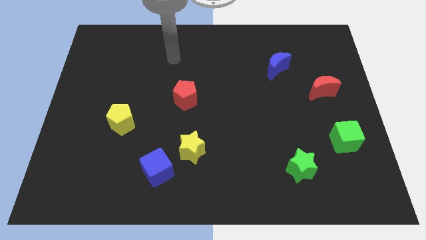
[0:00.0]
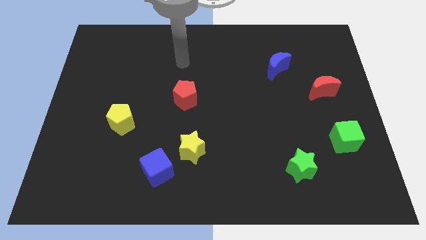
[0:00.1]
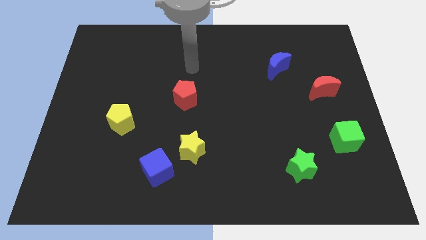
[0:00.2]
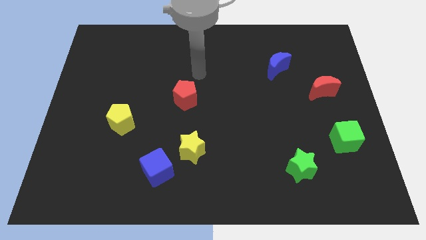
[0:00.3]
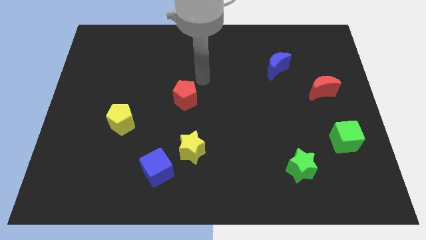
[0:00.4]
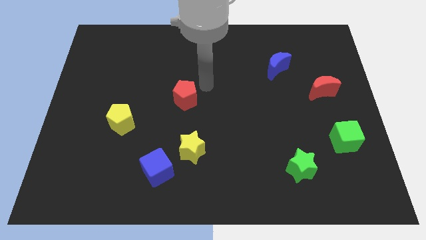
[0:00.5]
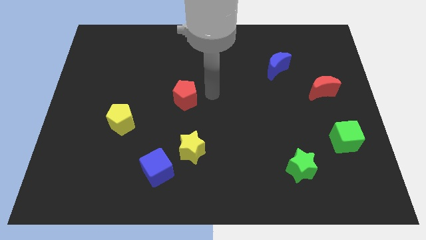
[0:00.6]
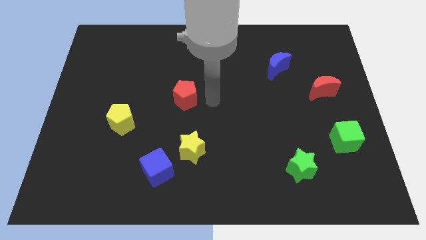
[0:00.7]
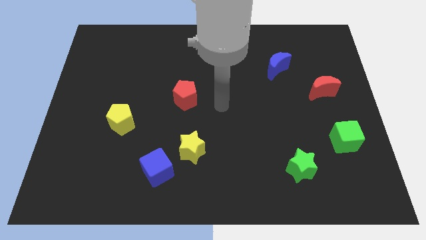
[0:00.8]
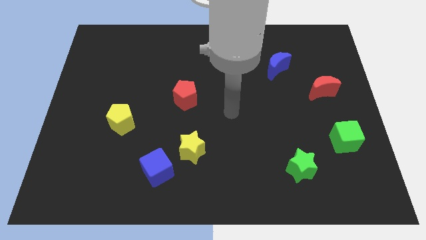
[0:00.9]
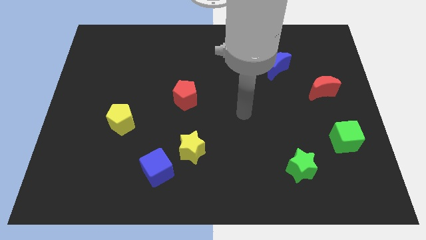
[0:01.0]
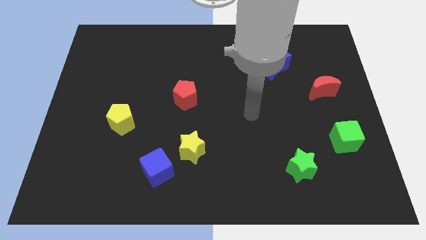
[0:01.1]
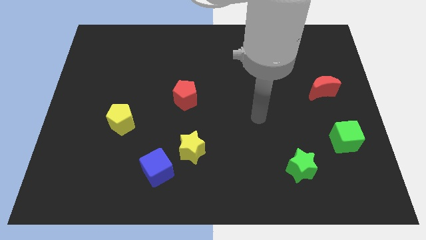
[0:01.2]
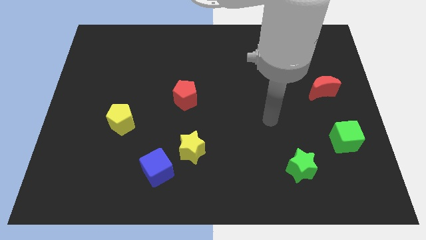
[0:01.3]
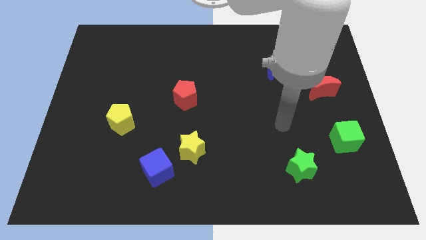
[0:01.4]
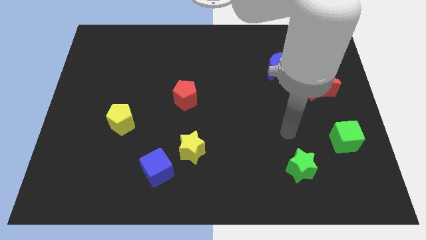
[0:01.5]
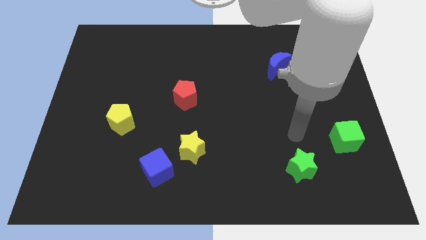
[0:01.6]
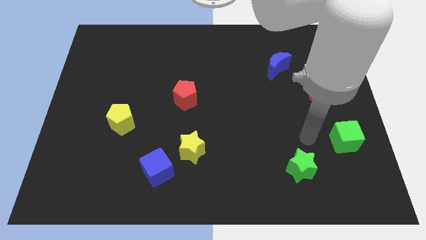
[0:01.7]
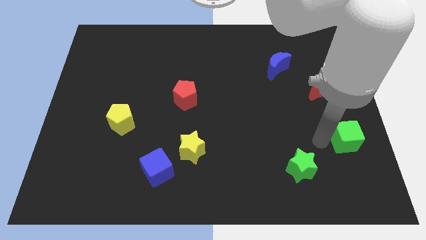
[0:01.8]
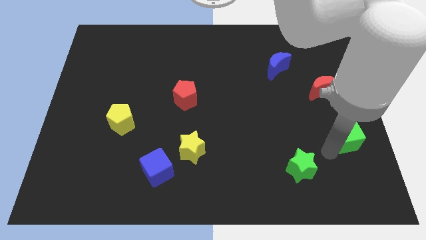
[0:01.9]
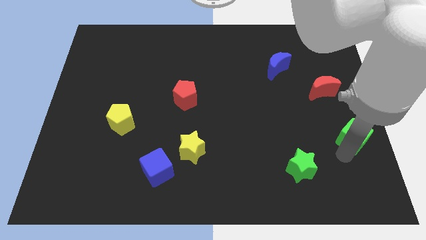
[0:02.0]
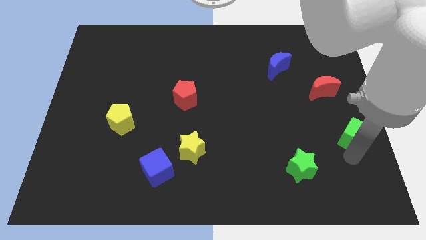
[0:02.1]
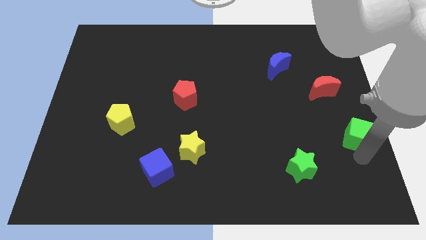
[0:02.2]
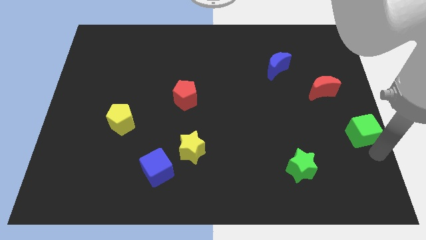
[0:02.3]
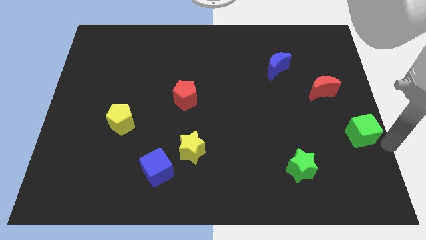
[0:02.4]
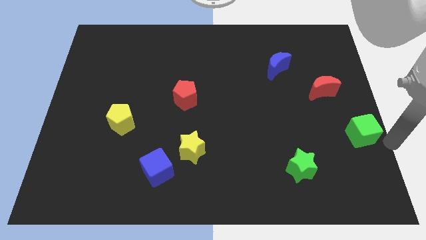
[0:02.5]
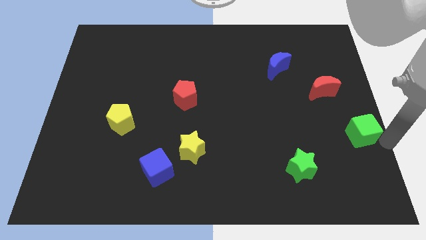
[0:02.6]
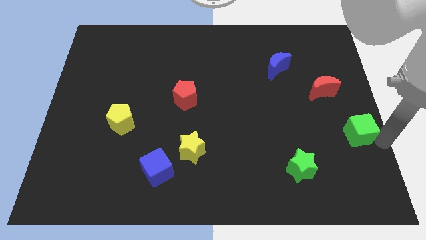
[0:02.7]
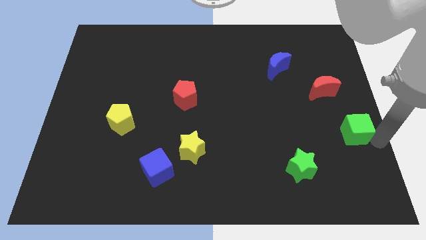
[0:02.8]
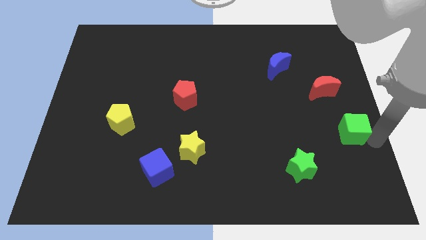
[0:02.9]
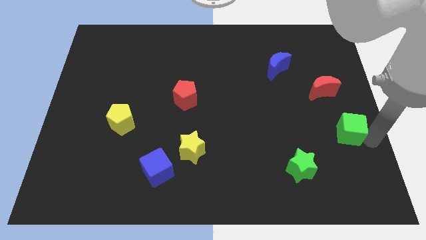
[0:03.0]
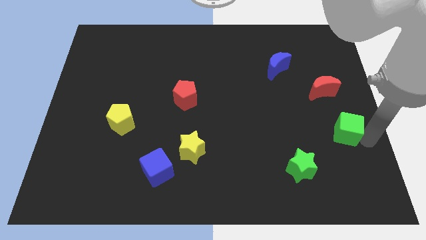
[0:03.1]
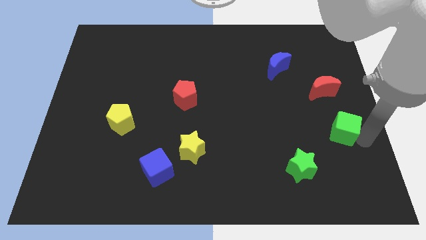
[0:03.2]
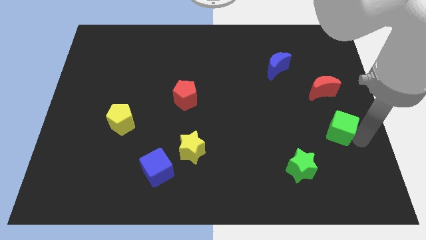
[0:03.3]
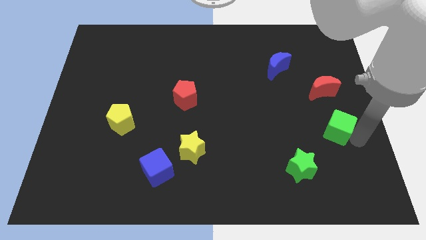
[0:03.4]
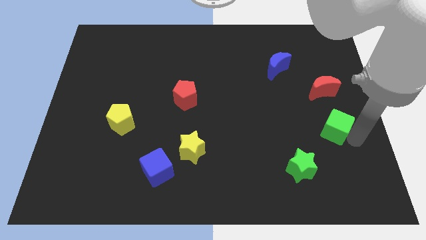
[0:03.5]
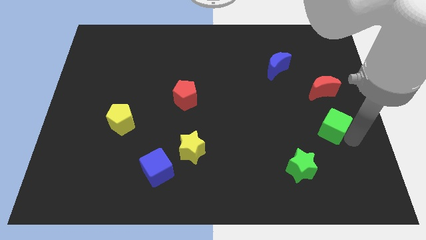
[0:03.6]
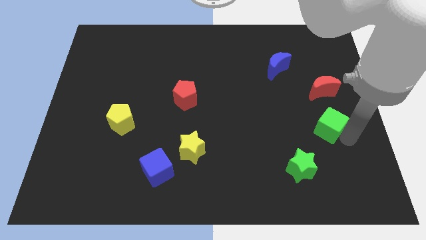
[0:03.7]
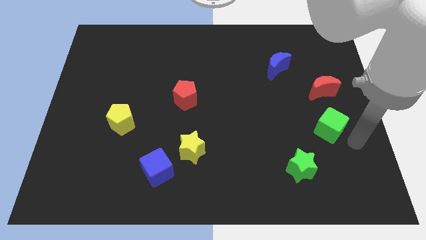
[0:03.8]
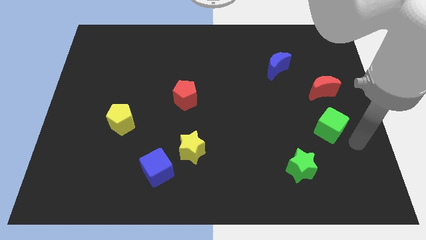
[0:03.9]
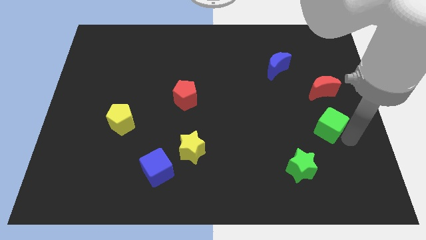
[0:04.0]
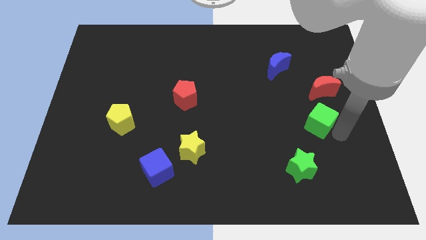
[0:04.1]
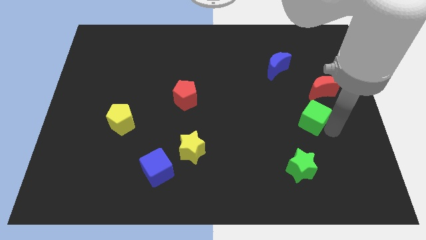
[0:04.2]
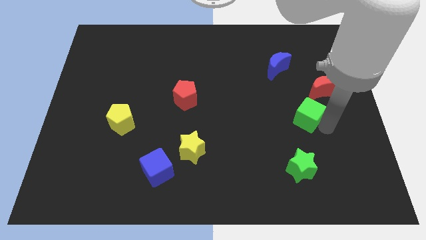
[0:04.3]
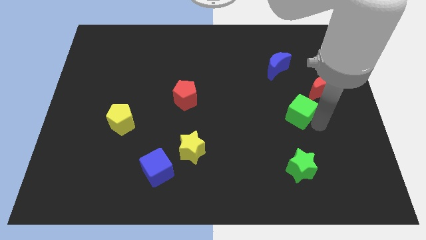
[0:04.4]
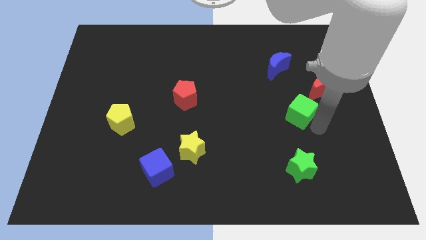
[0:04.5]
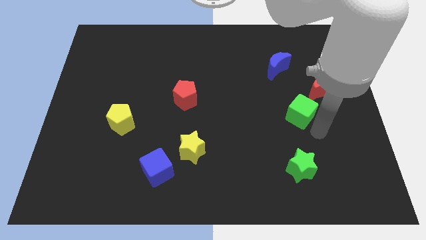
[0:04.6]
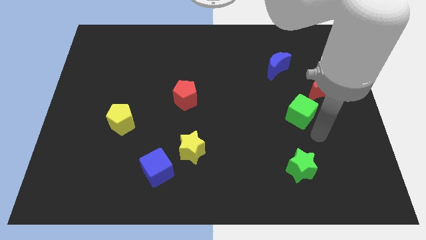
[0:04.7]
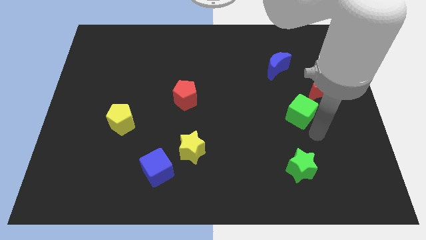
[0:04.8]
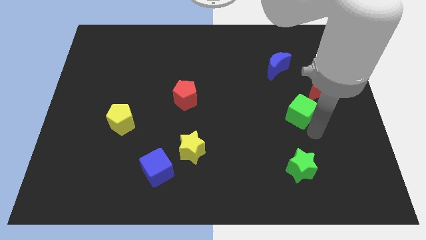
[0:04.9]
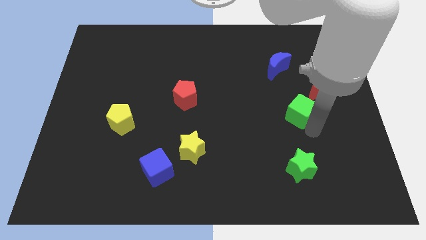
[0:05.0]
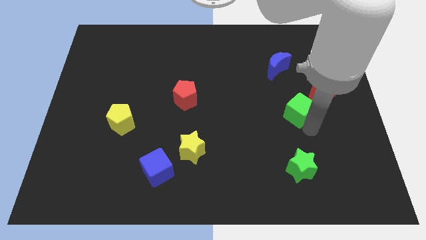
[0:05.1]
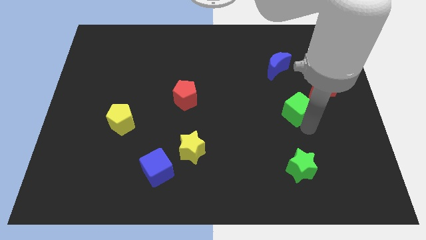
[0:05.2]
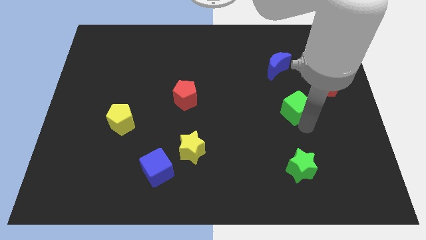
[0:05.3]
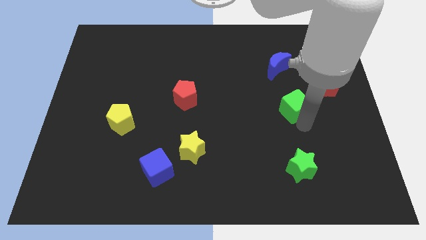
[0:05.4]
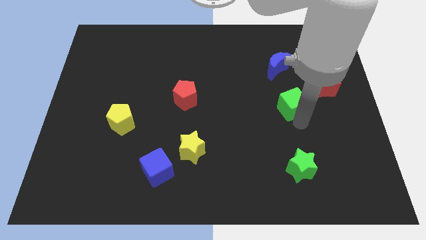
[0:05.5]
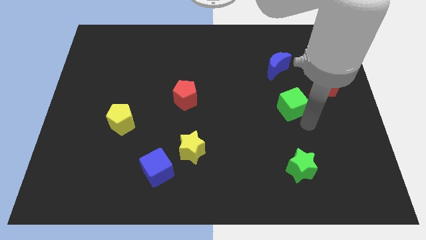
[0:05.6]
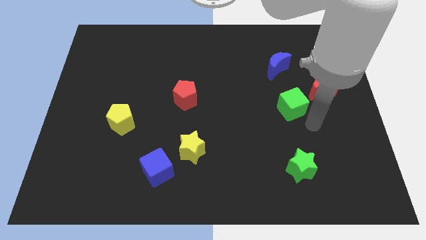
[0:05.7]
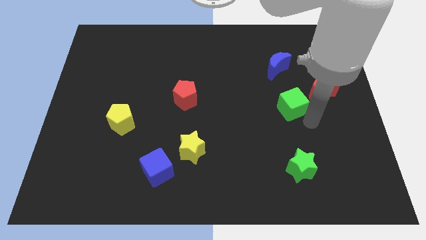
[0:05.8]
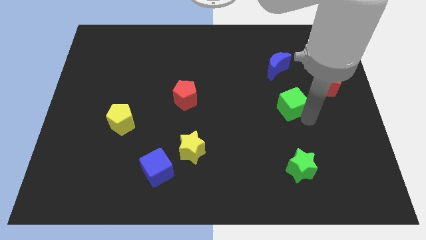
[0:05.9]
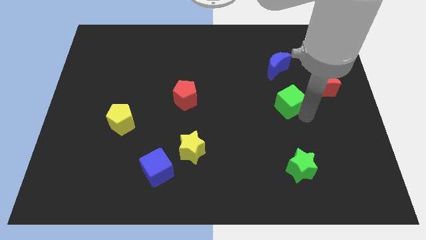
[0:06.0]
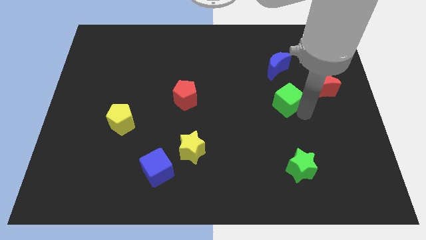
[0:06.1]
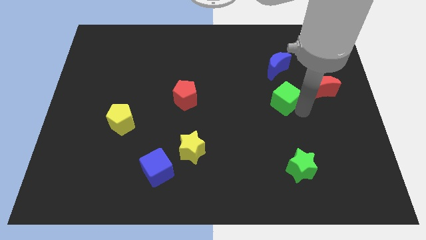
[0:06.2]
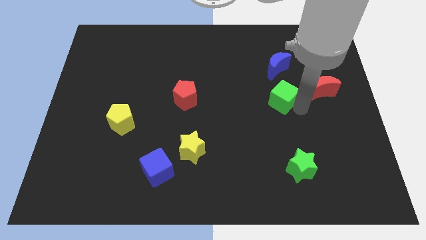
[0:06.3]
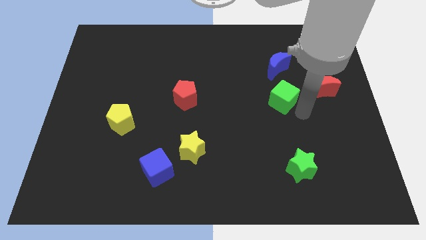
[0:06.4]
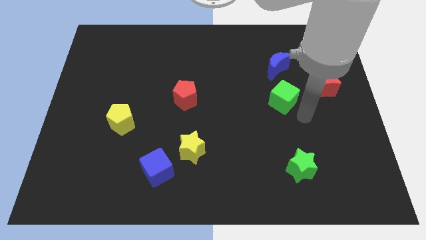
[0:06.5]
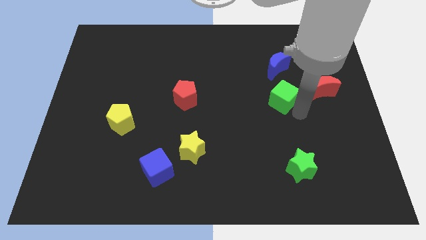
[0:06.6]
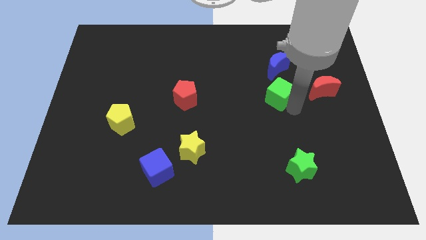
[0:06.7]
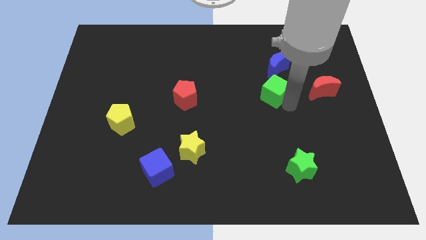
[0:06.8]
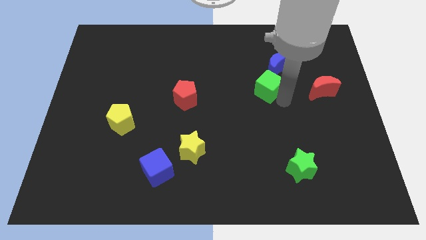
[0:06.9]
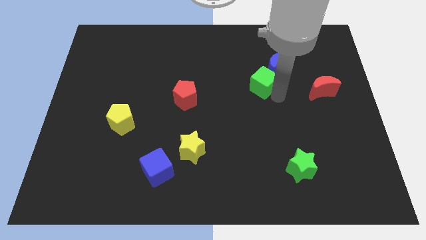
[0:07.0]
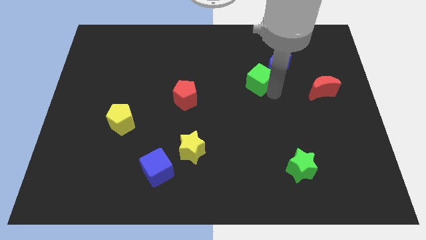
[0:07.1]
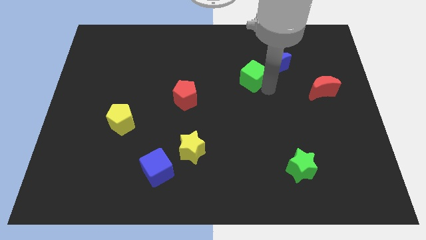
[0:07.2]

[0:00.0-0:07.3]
slide the green cube left of the blue moon
